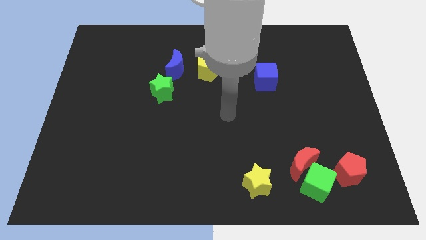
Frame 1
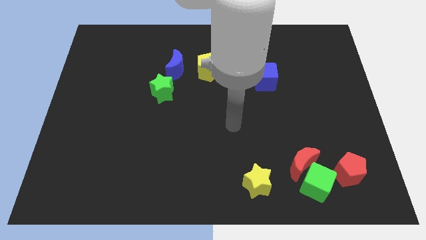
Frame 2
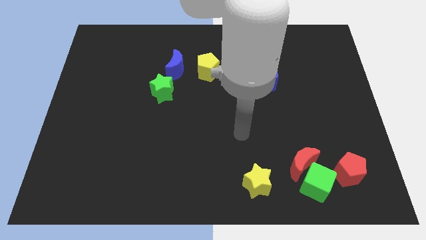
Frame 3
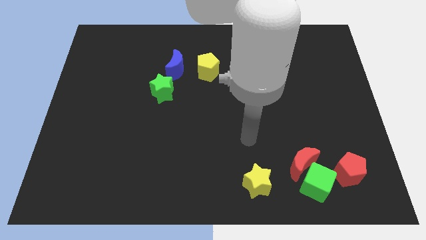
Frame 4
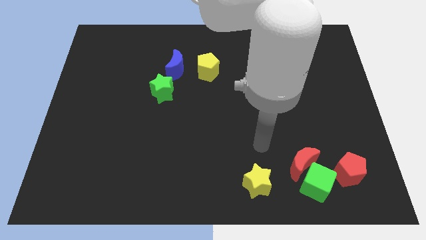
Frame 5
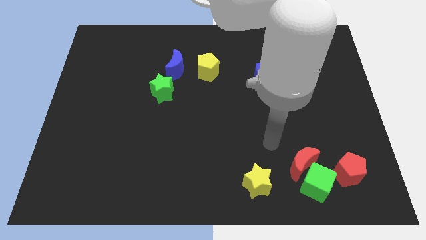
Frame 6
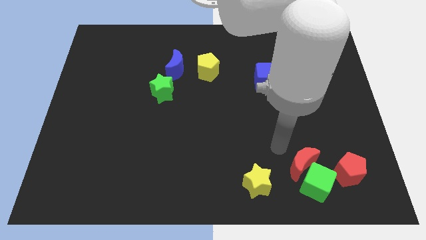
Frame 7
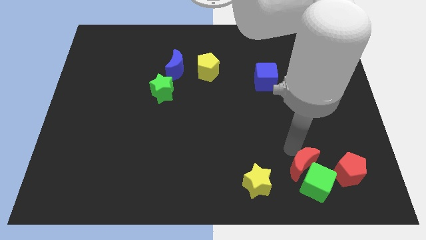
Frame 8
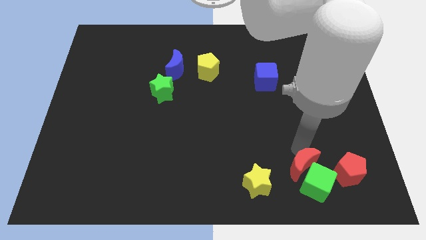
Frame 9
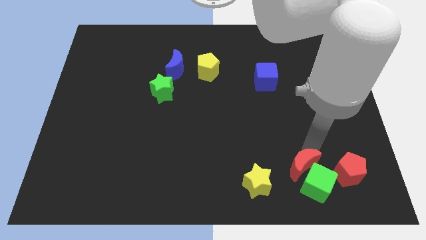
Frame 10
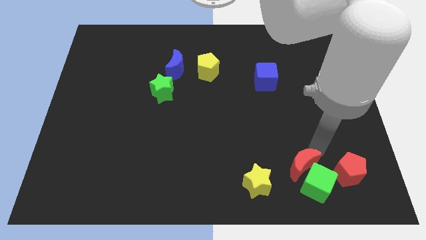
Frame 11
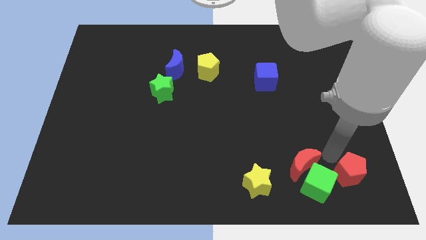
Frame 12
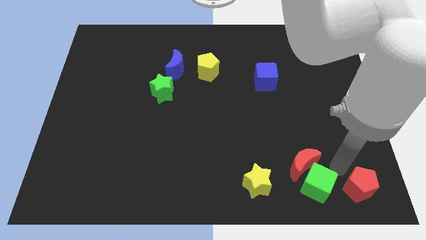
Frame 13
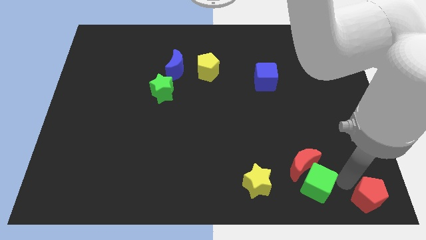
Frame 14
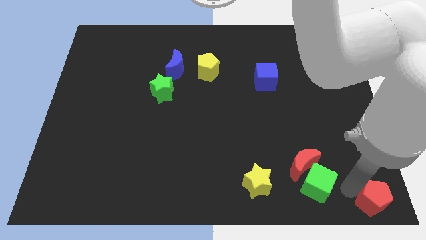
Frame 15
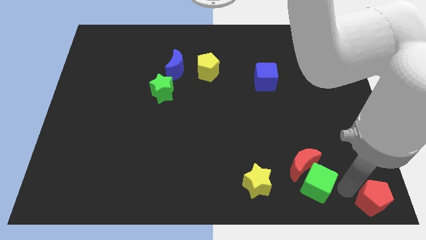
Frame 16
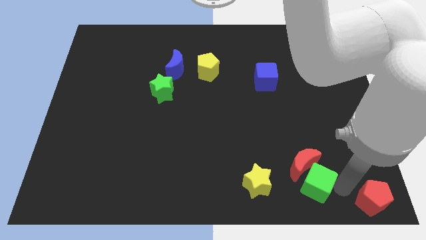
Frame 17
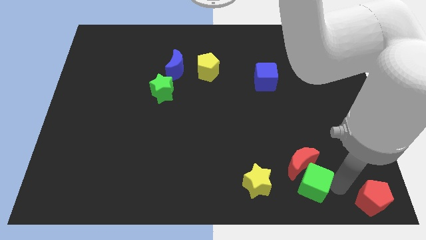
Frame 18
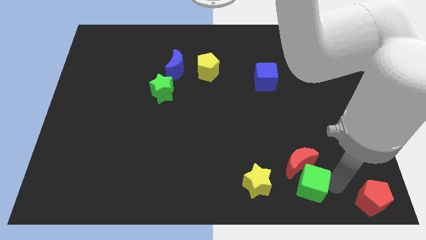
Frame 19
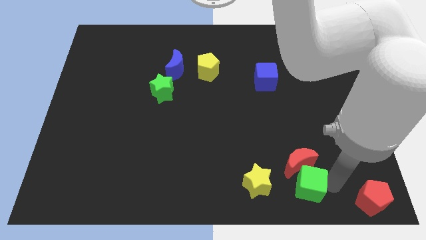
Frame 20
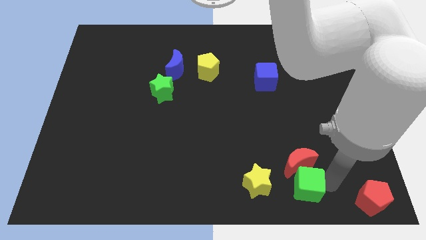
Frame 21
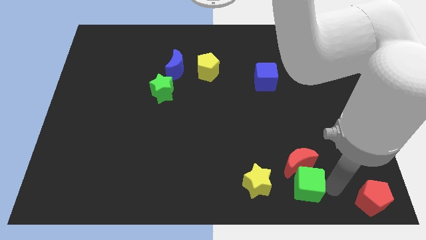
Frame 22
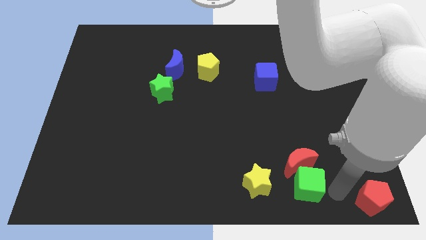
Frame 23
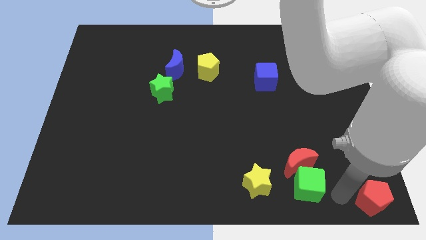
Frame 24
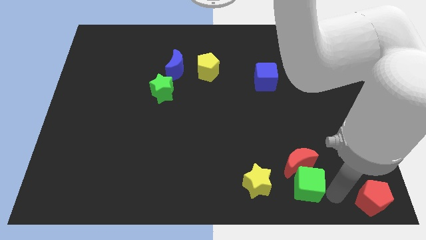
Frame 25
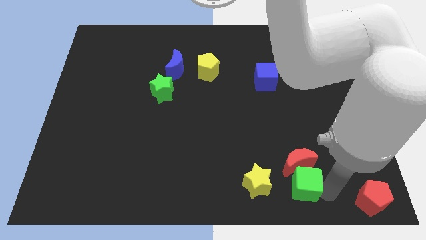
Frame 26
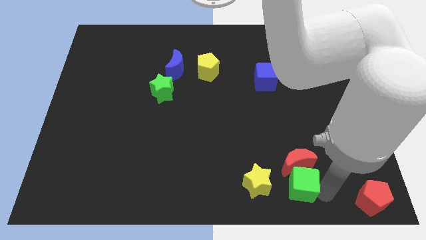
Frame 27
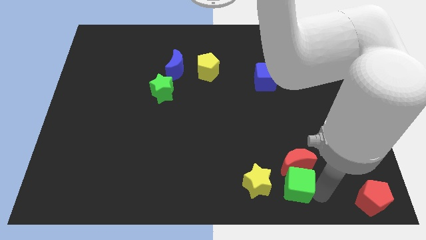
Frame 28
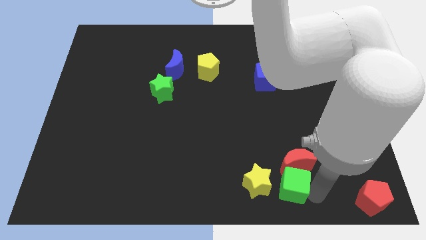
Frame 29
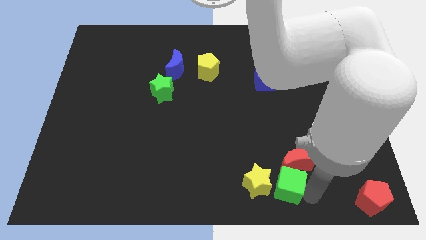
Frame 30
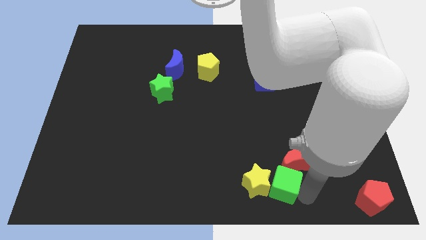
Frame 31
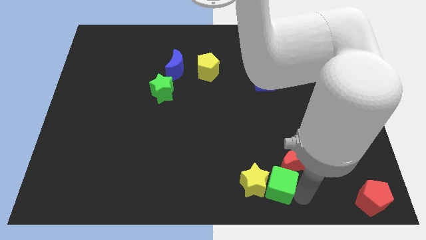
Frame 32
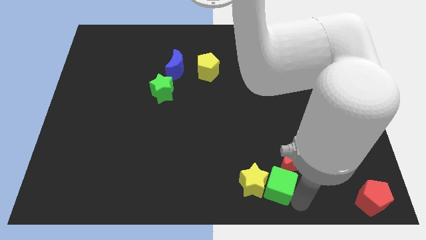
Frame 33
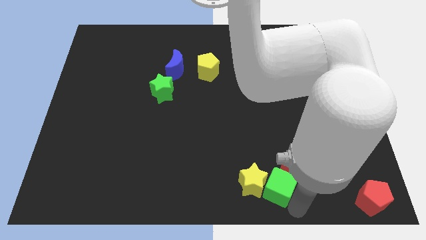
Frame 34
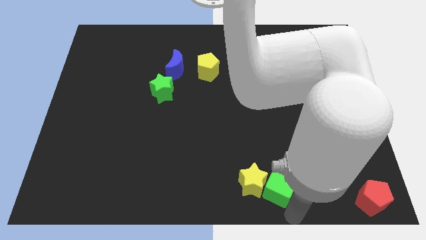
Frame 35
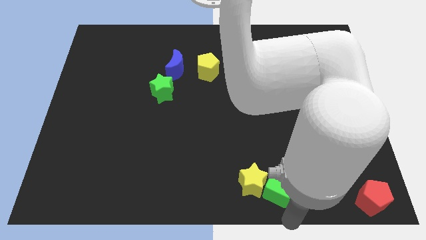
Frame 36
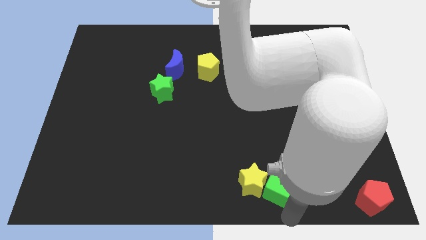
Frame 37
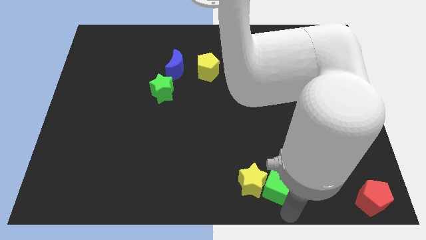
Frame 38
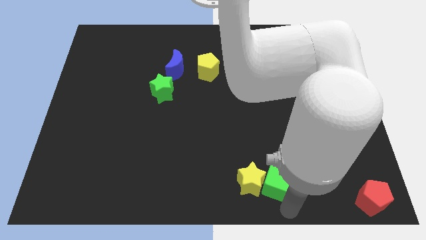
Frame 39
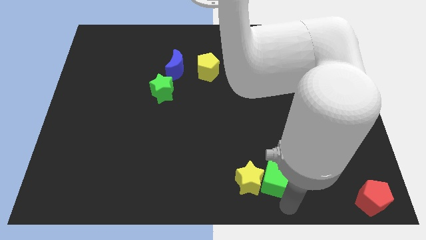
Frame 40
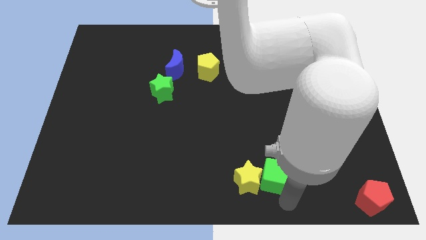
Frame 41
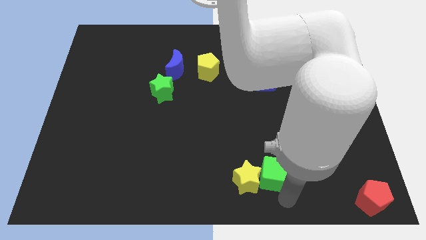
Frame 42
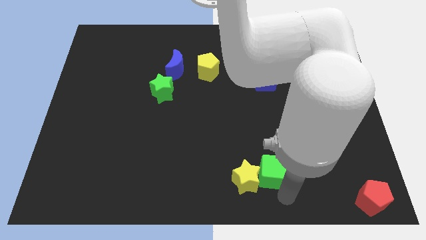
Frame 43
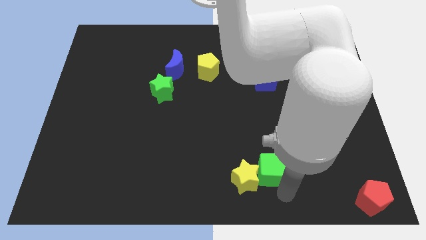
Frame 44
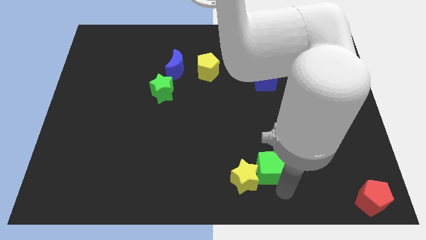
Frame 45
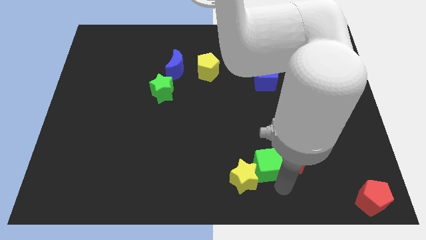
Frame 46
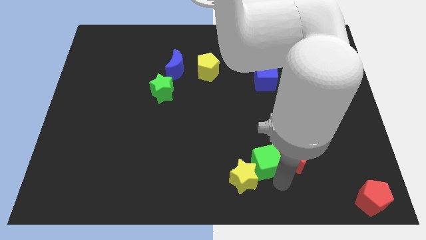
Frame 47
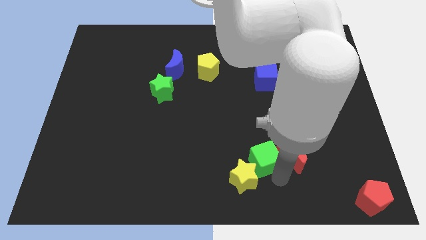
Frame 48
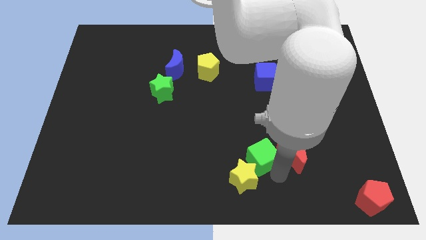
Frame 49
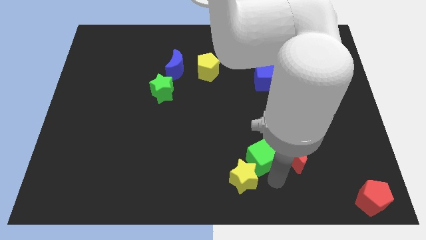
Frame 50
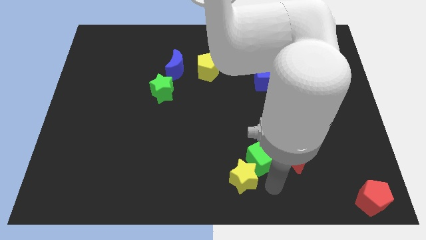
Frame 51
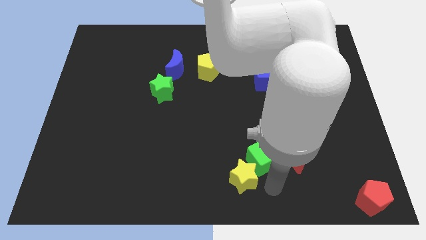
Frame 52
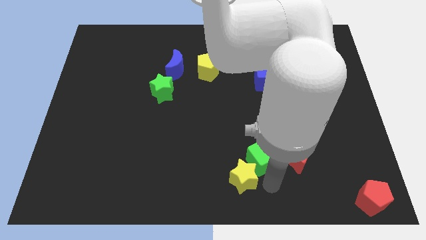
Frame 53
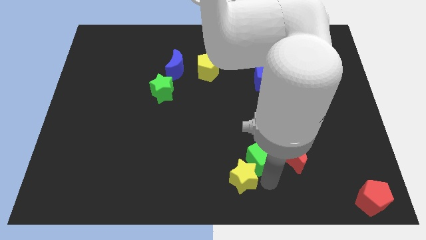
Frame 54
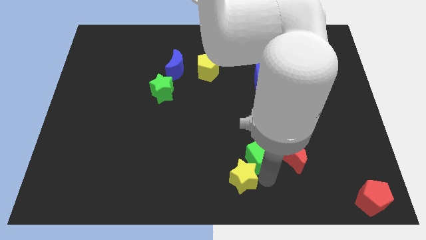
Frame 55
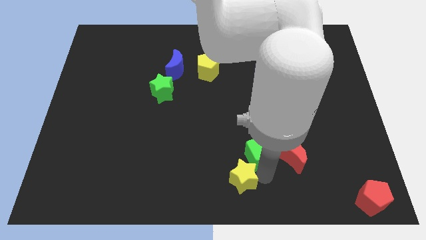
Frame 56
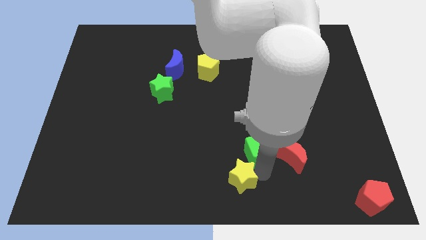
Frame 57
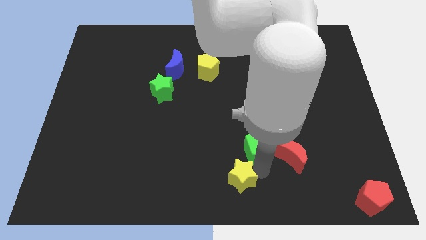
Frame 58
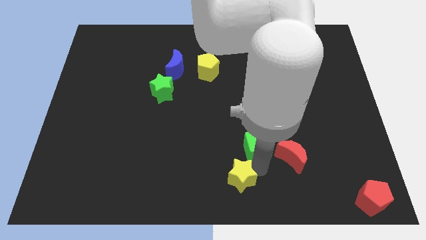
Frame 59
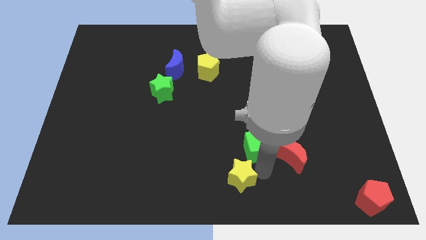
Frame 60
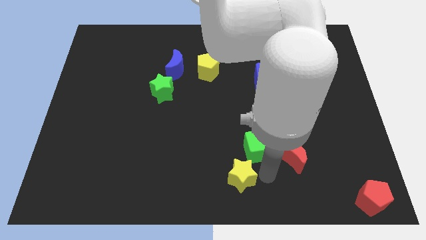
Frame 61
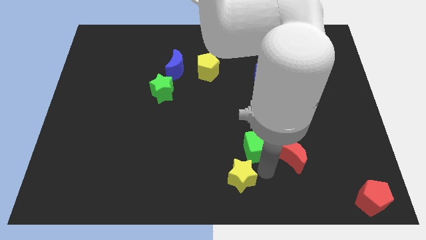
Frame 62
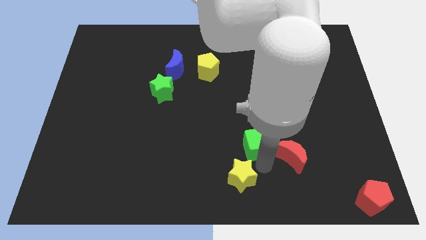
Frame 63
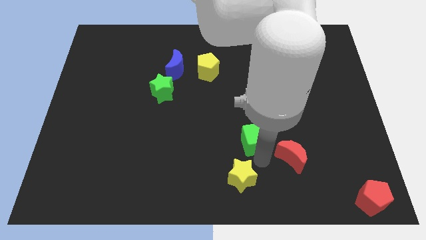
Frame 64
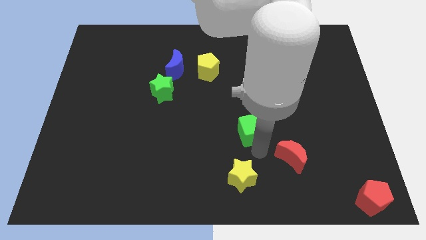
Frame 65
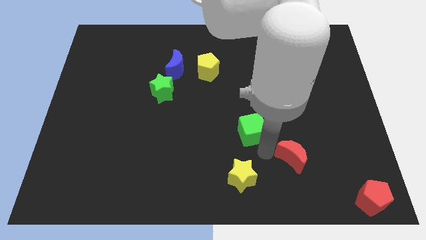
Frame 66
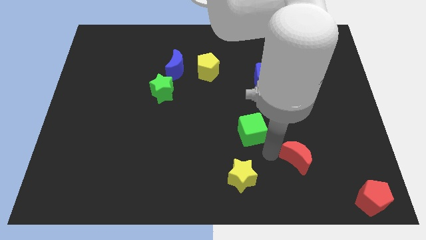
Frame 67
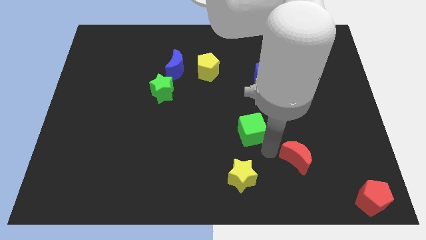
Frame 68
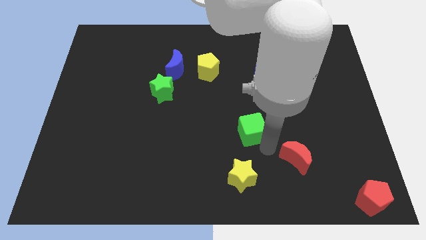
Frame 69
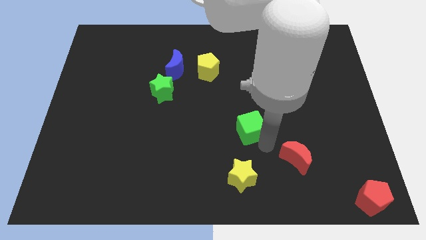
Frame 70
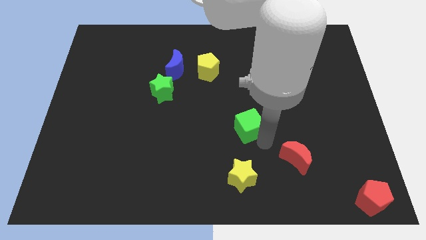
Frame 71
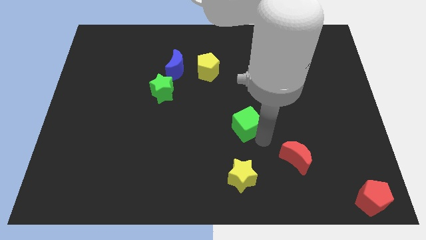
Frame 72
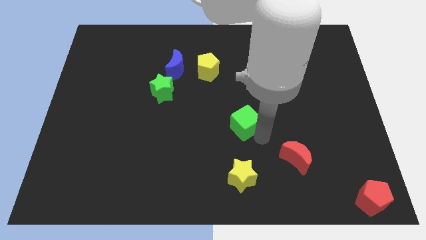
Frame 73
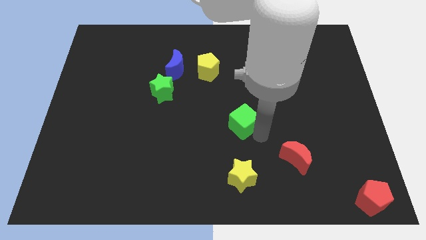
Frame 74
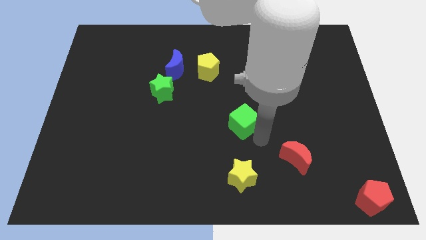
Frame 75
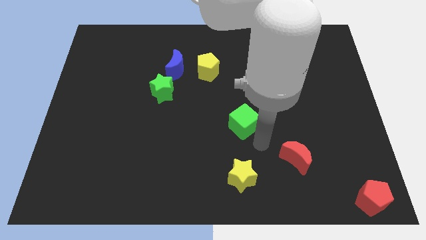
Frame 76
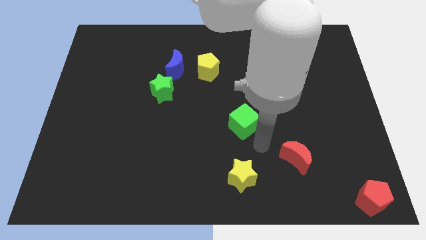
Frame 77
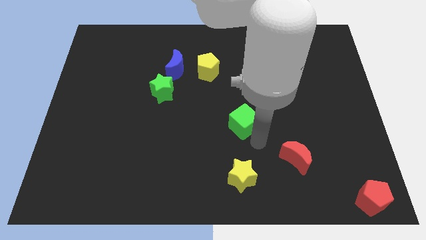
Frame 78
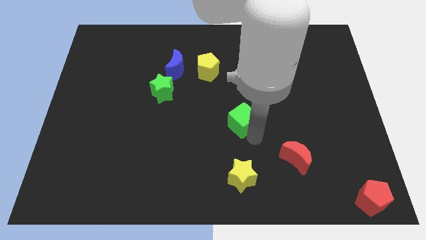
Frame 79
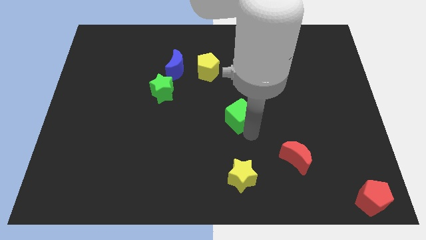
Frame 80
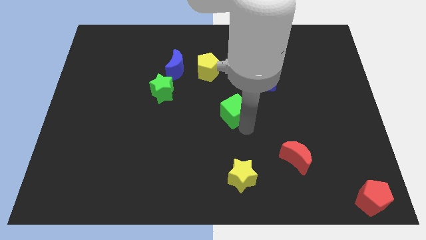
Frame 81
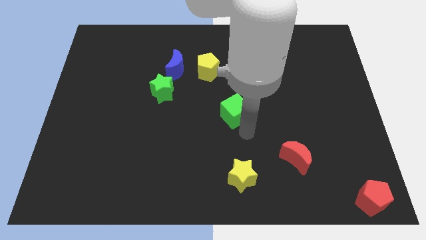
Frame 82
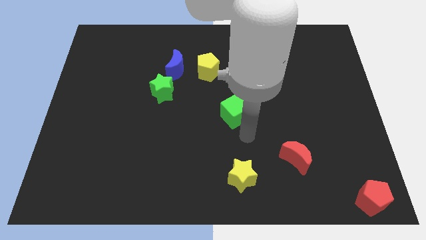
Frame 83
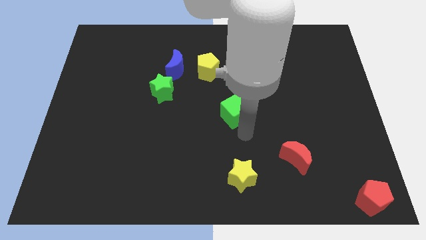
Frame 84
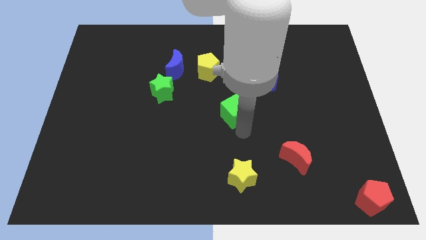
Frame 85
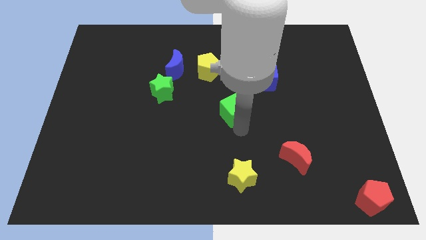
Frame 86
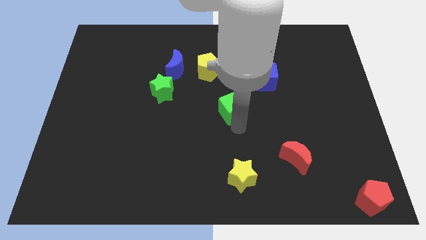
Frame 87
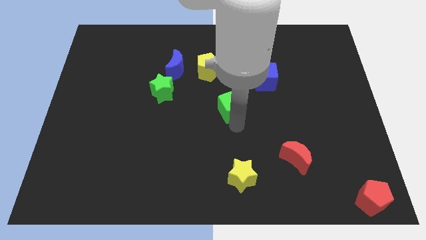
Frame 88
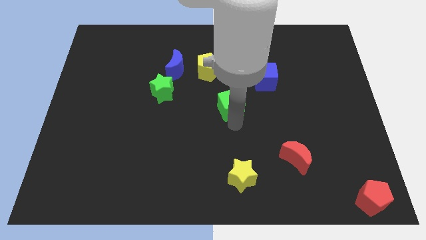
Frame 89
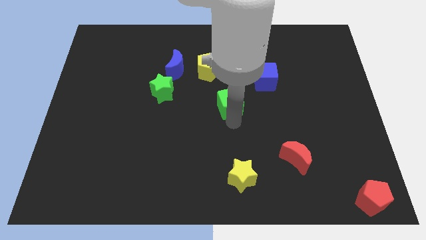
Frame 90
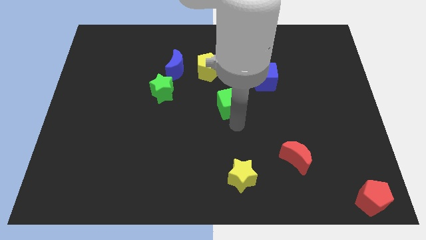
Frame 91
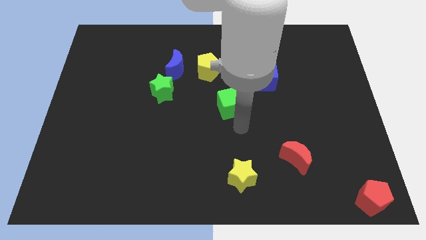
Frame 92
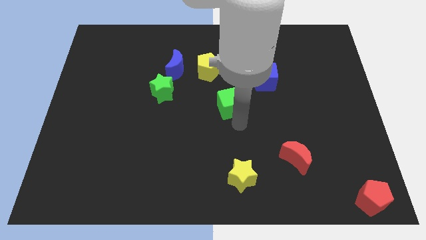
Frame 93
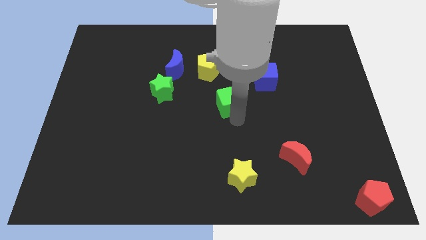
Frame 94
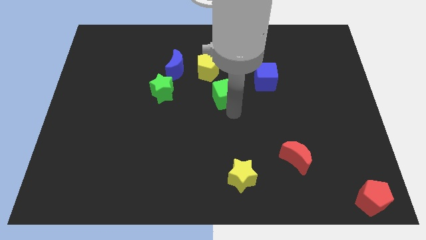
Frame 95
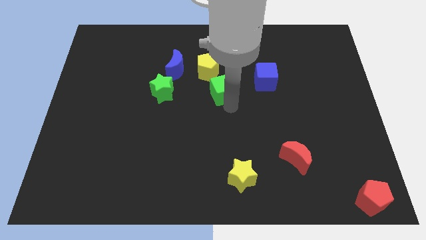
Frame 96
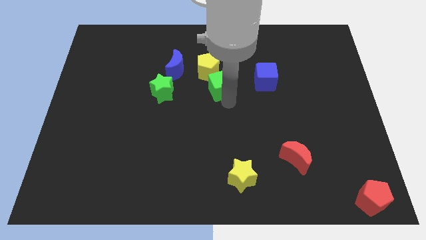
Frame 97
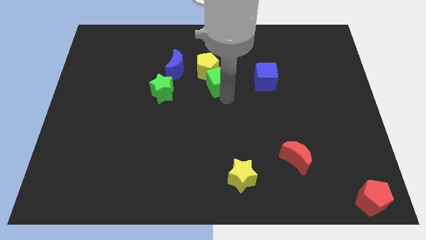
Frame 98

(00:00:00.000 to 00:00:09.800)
move the green cube next to the yellow pentagon
